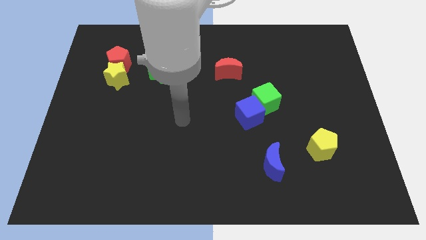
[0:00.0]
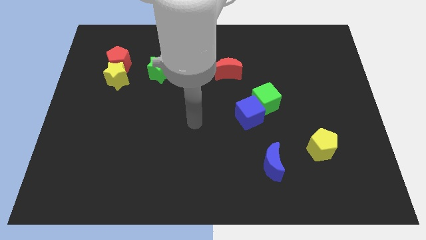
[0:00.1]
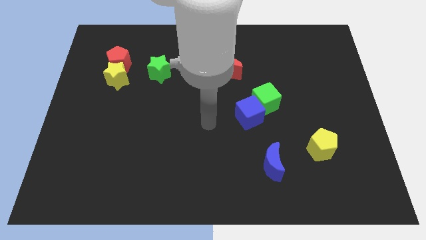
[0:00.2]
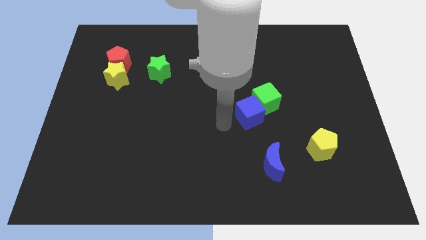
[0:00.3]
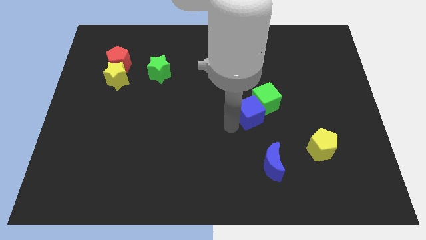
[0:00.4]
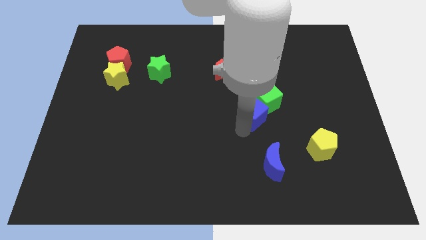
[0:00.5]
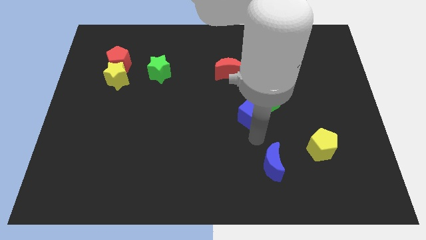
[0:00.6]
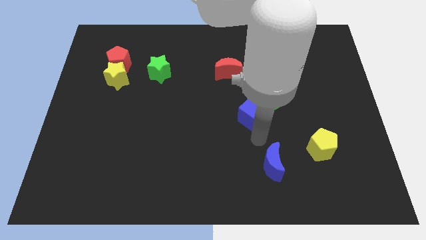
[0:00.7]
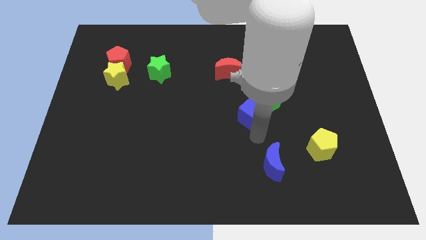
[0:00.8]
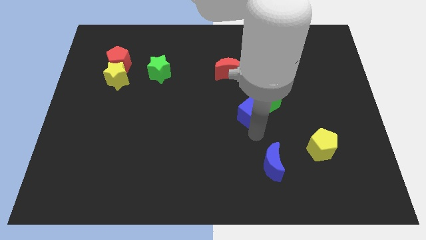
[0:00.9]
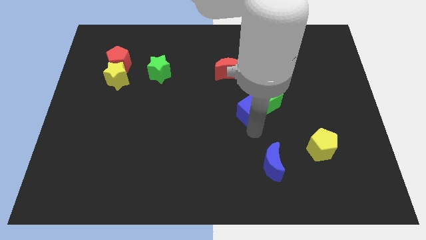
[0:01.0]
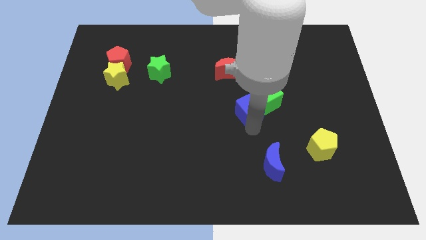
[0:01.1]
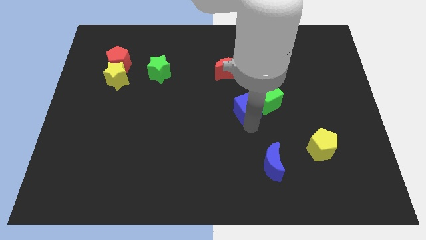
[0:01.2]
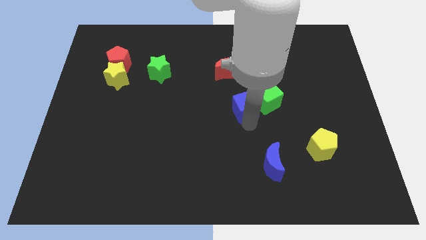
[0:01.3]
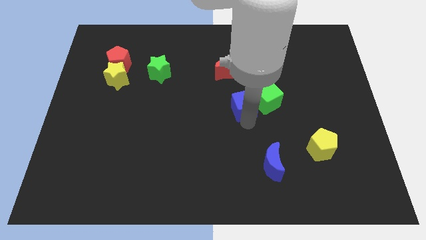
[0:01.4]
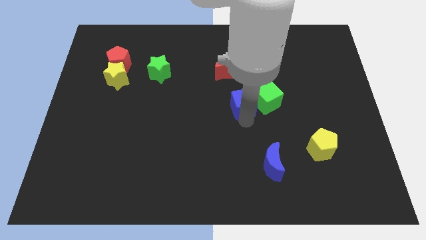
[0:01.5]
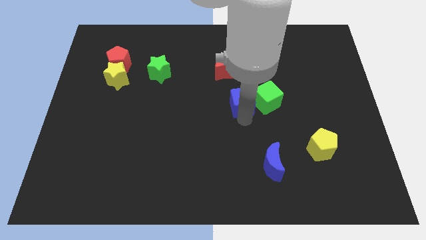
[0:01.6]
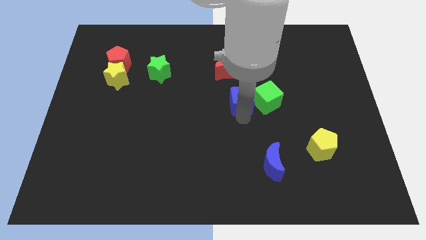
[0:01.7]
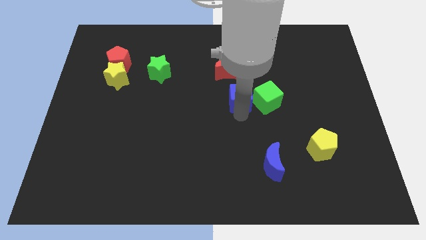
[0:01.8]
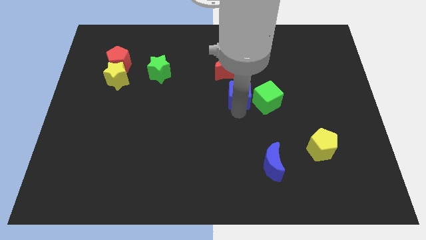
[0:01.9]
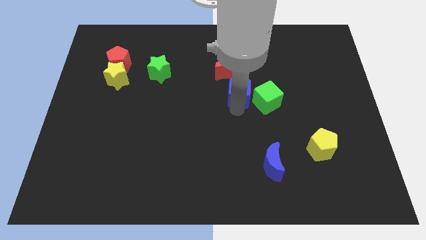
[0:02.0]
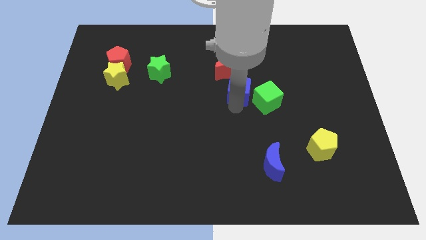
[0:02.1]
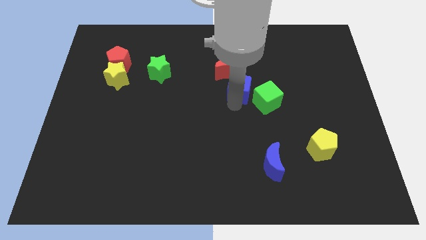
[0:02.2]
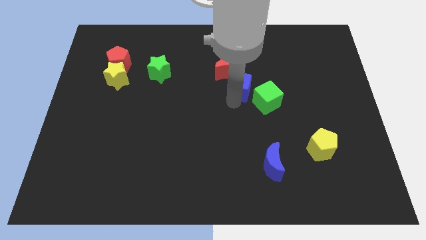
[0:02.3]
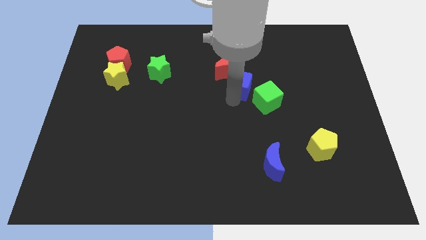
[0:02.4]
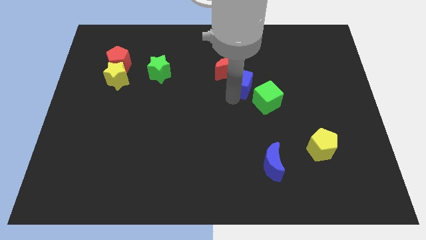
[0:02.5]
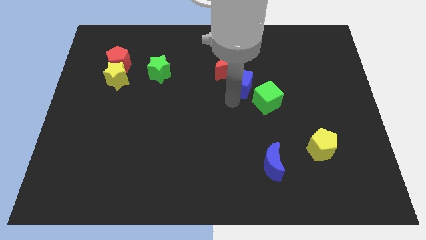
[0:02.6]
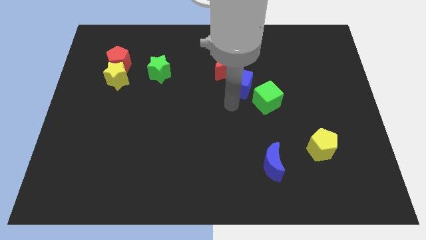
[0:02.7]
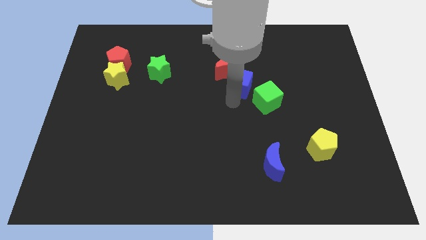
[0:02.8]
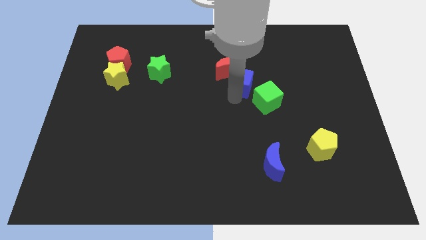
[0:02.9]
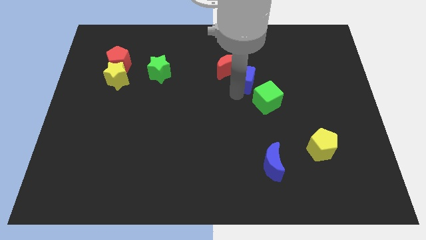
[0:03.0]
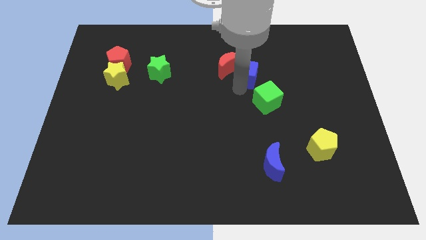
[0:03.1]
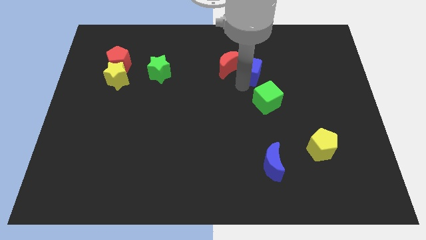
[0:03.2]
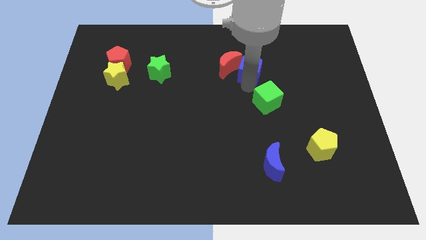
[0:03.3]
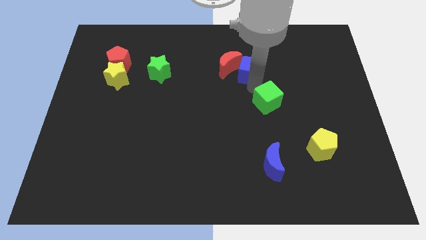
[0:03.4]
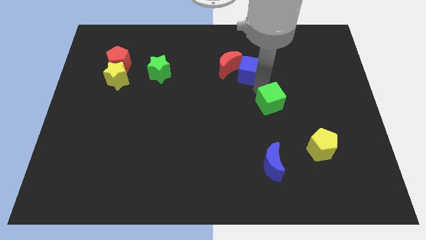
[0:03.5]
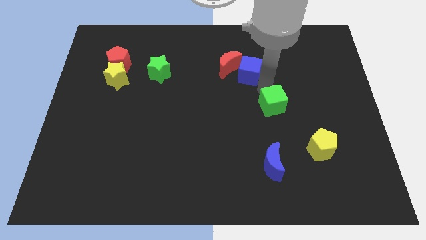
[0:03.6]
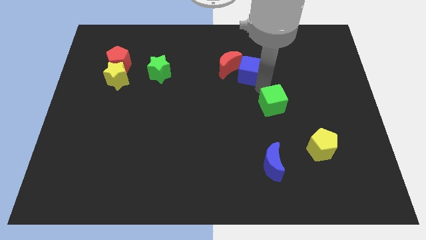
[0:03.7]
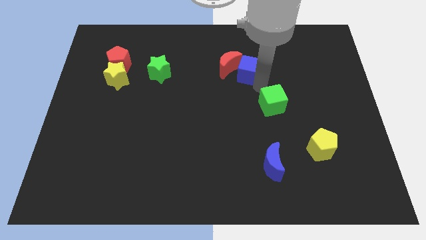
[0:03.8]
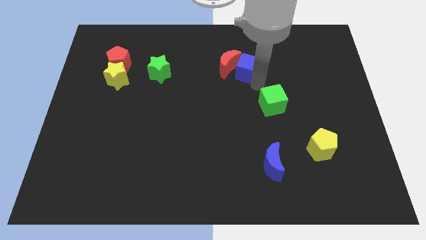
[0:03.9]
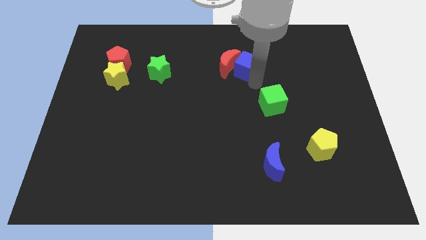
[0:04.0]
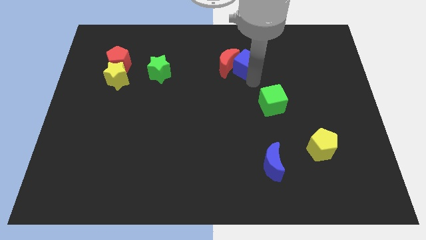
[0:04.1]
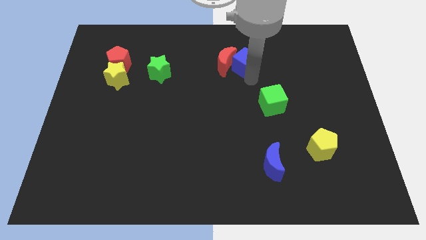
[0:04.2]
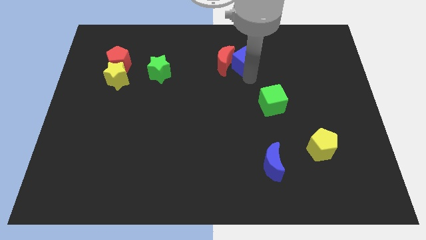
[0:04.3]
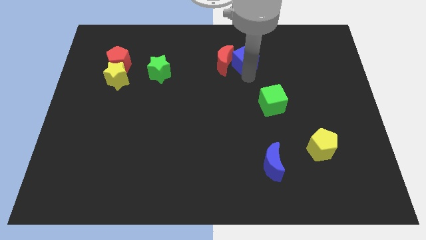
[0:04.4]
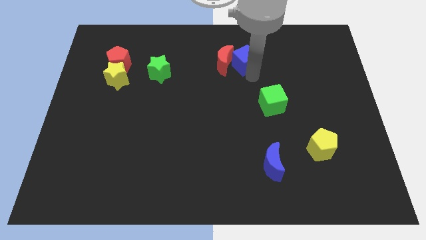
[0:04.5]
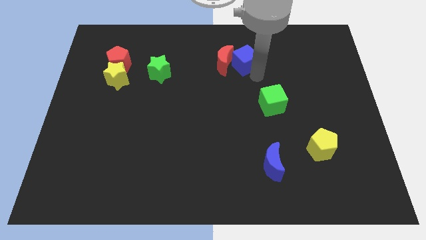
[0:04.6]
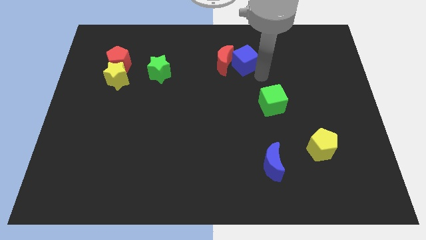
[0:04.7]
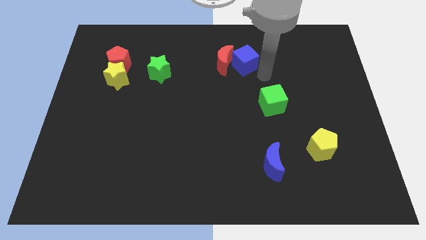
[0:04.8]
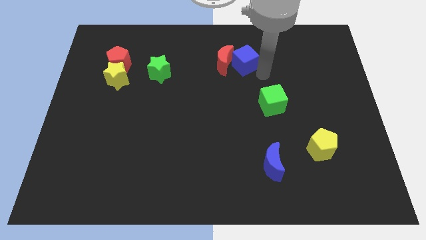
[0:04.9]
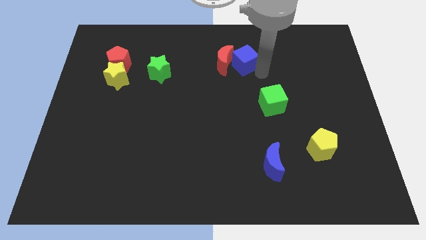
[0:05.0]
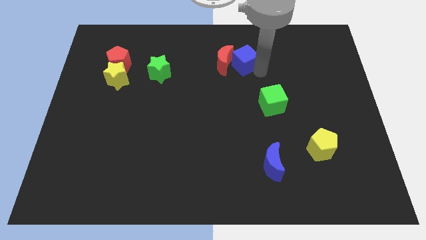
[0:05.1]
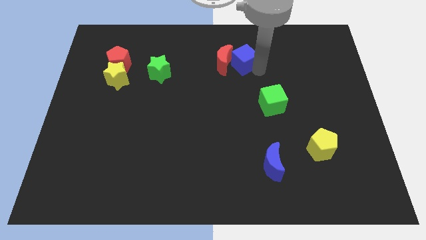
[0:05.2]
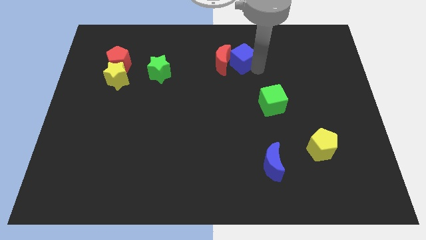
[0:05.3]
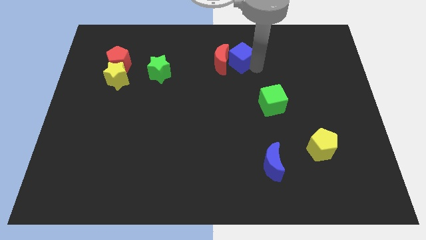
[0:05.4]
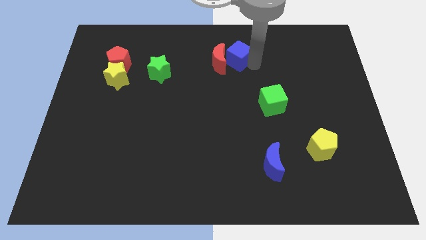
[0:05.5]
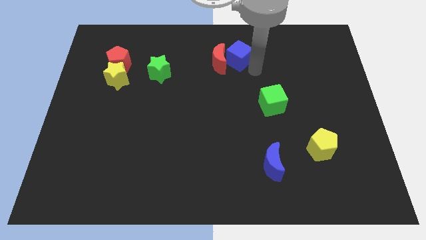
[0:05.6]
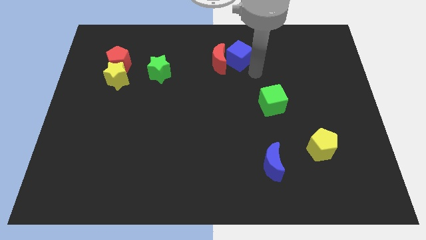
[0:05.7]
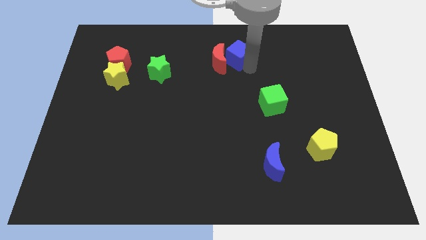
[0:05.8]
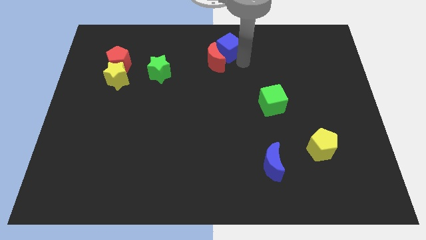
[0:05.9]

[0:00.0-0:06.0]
slide the blue cube to the top
